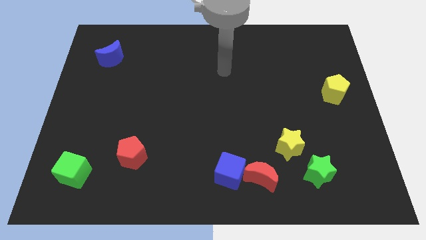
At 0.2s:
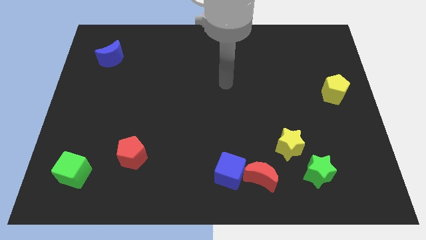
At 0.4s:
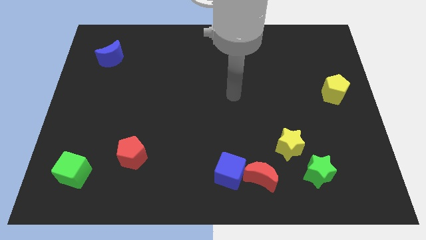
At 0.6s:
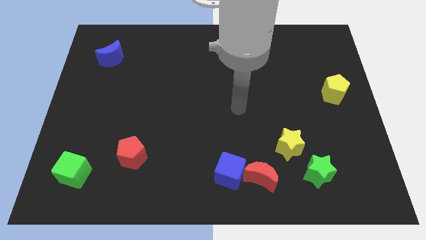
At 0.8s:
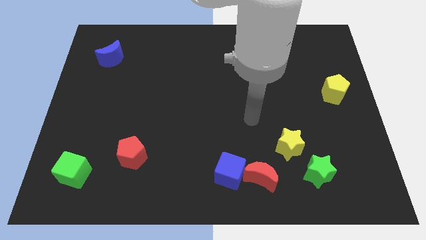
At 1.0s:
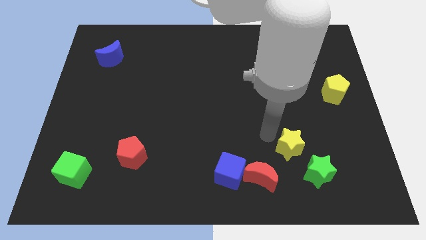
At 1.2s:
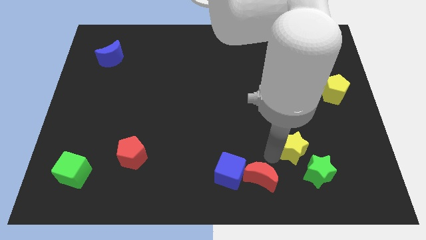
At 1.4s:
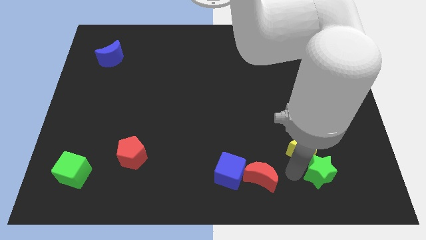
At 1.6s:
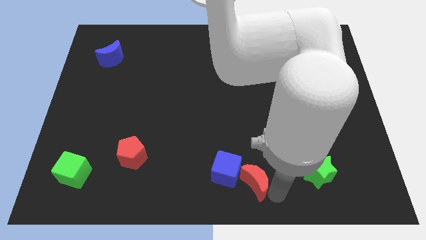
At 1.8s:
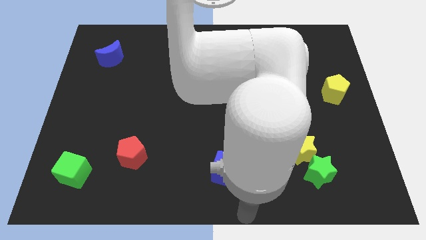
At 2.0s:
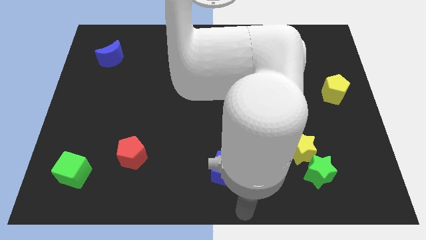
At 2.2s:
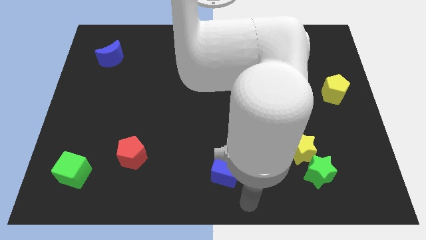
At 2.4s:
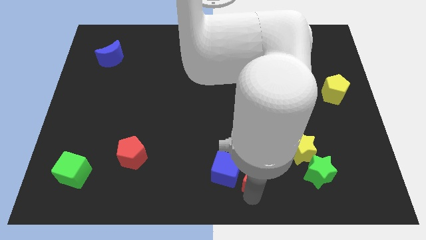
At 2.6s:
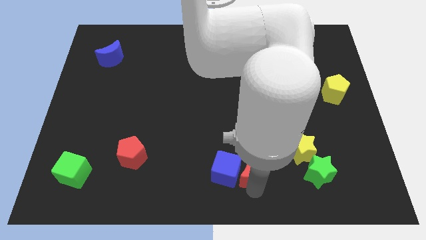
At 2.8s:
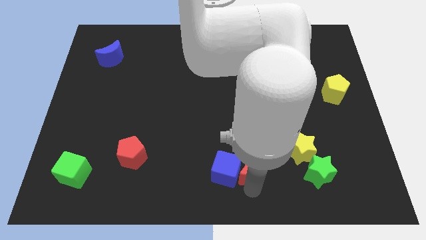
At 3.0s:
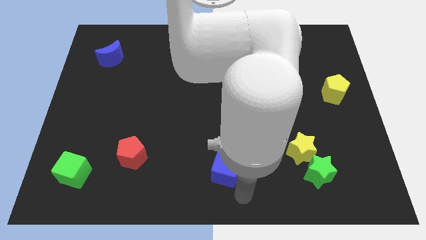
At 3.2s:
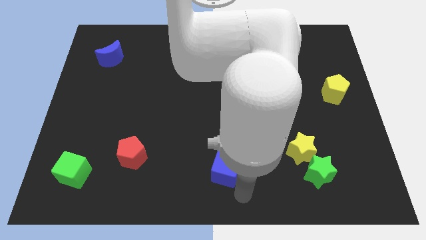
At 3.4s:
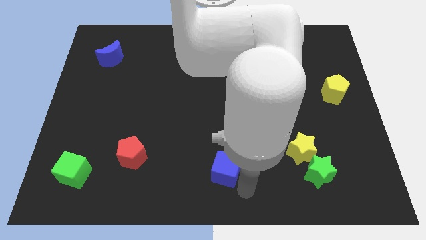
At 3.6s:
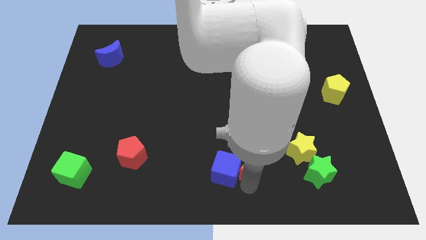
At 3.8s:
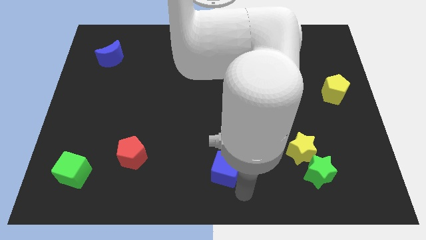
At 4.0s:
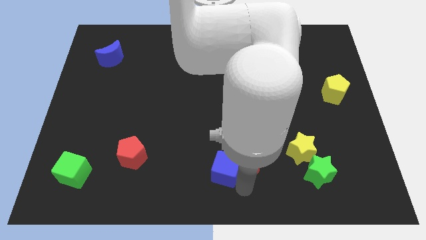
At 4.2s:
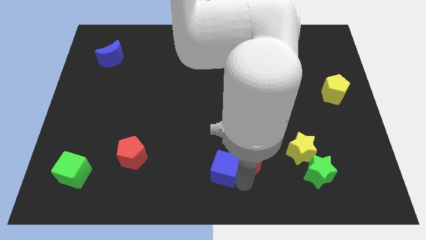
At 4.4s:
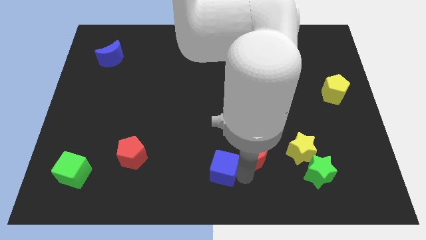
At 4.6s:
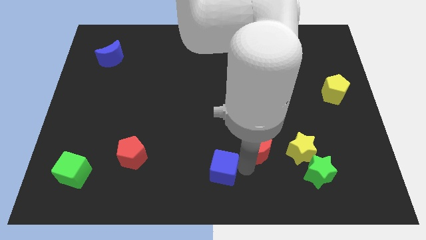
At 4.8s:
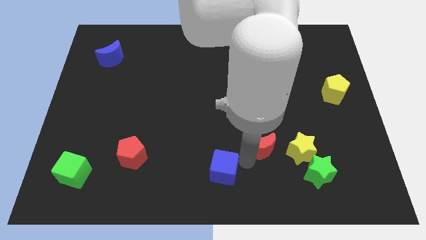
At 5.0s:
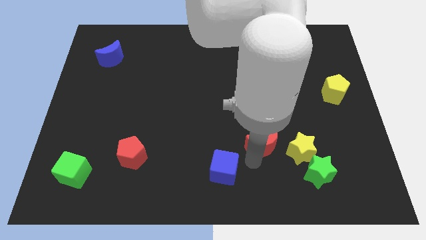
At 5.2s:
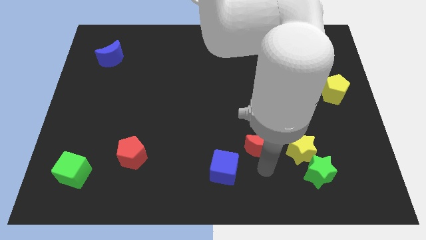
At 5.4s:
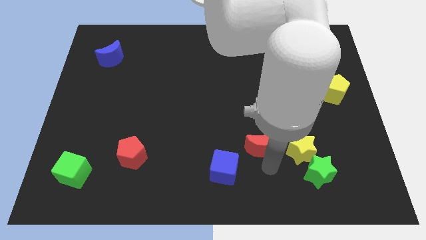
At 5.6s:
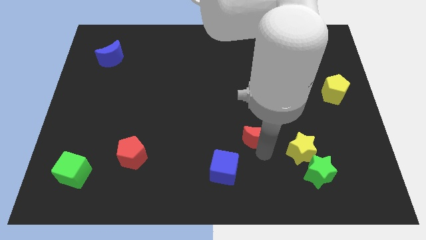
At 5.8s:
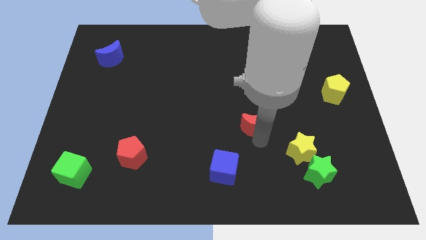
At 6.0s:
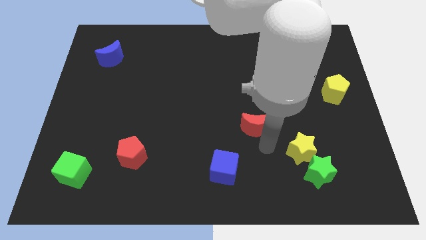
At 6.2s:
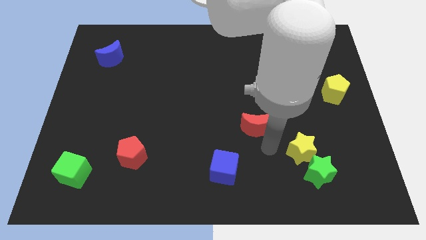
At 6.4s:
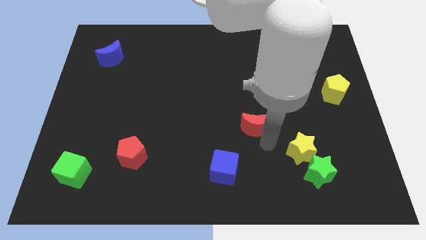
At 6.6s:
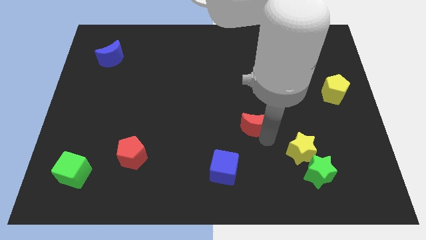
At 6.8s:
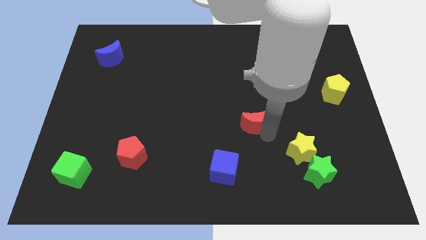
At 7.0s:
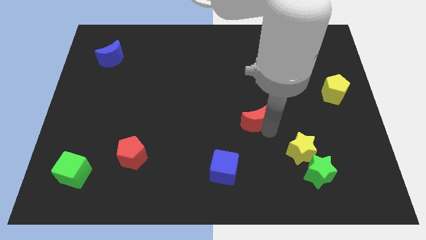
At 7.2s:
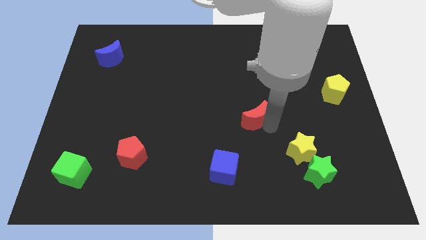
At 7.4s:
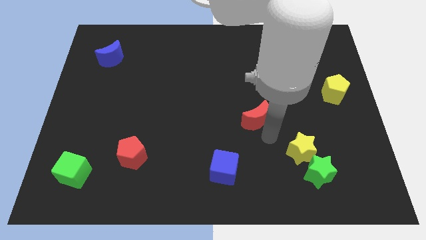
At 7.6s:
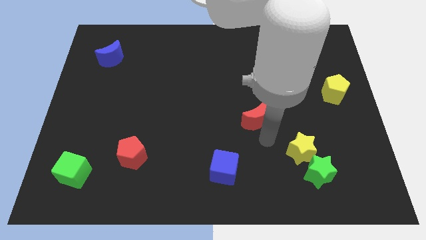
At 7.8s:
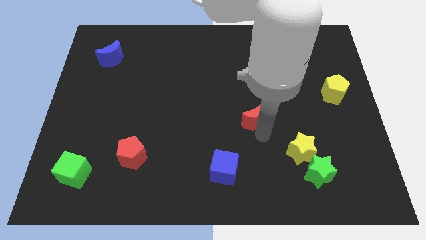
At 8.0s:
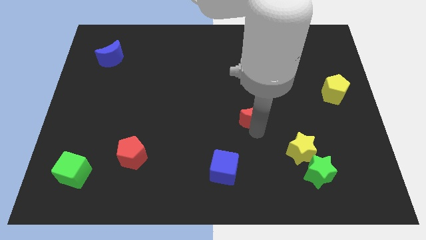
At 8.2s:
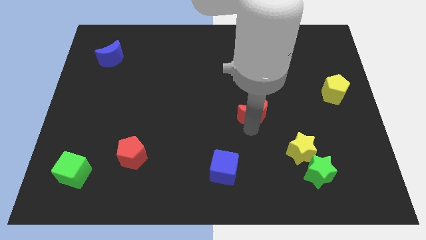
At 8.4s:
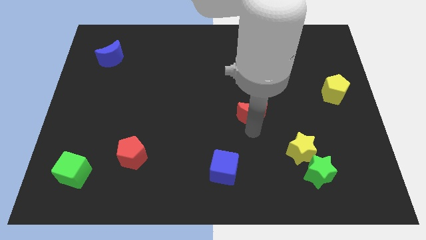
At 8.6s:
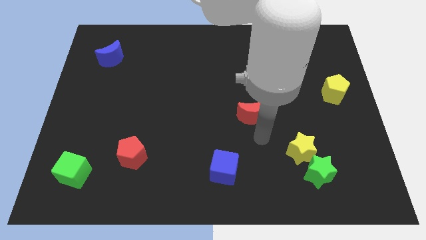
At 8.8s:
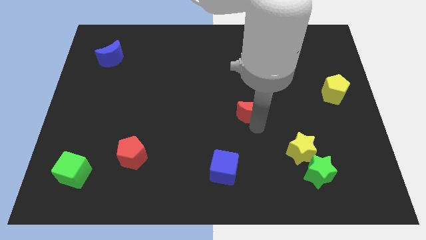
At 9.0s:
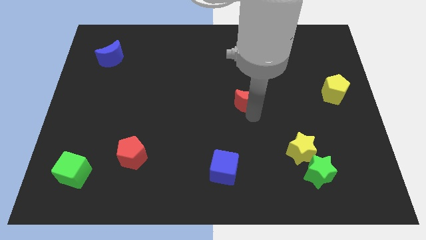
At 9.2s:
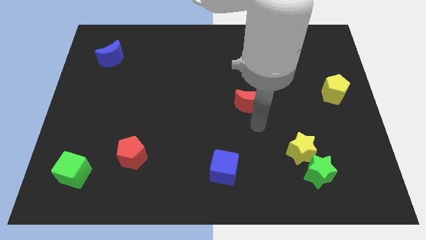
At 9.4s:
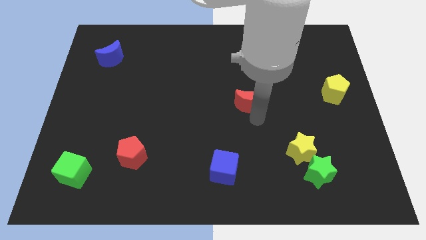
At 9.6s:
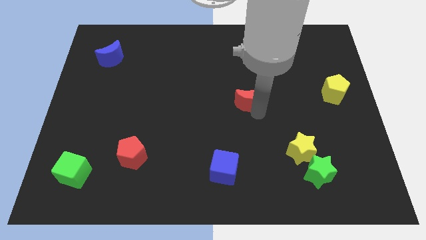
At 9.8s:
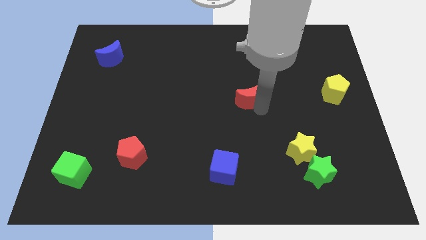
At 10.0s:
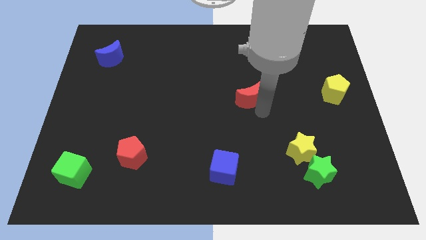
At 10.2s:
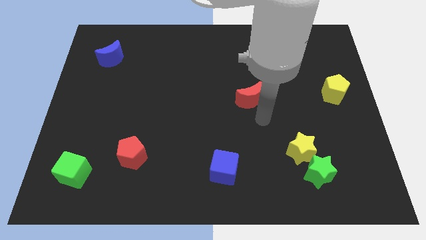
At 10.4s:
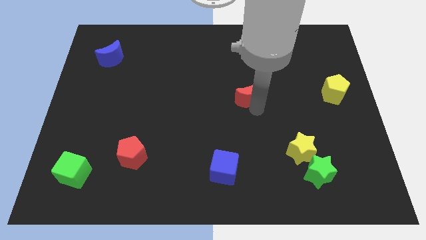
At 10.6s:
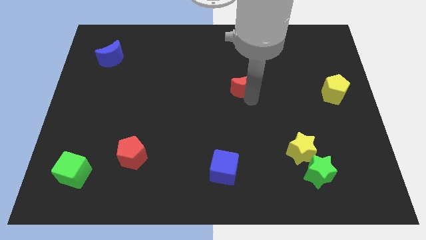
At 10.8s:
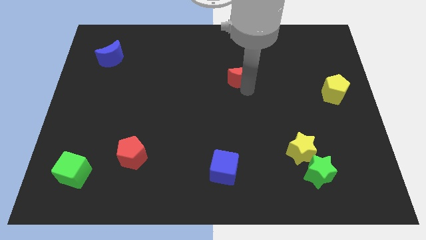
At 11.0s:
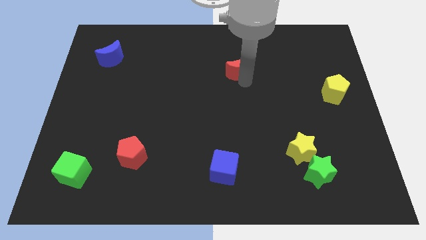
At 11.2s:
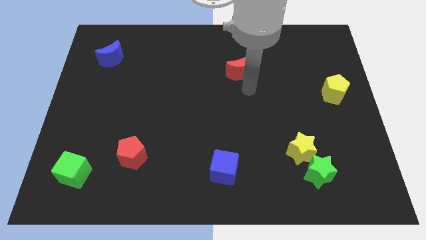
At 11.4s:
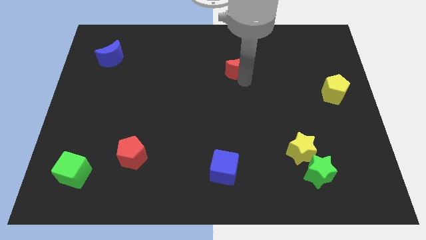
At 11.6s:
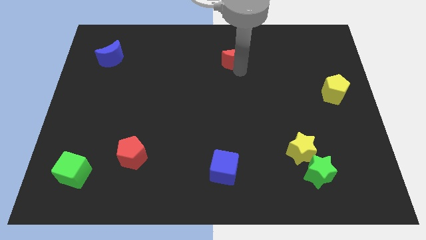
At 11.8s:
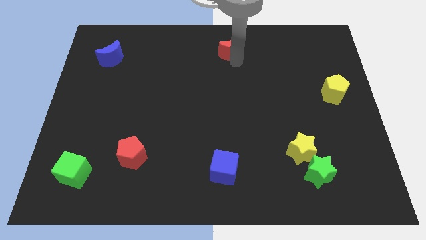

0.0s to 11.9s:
put the red moon to the top
